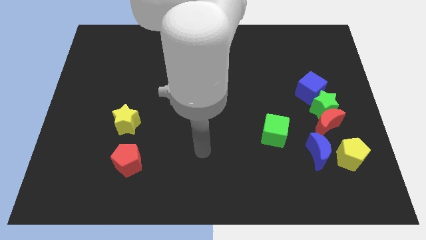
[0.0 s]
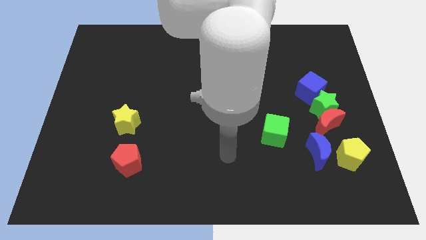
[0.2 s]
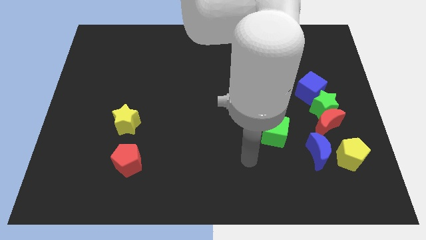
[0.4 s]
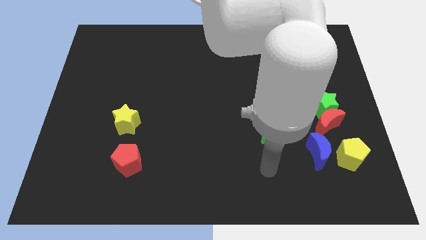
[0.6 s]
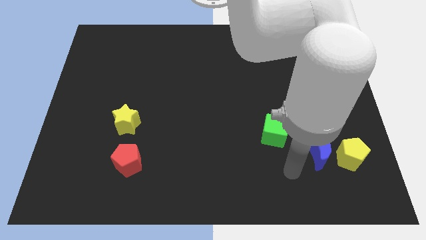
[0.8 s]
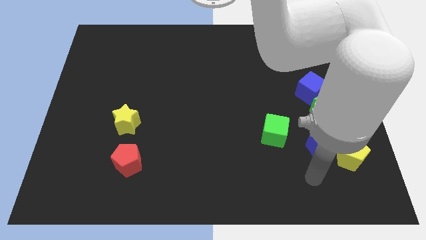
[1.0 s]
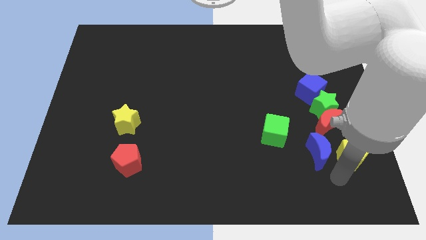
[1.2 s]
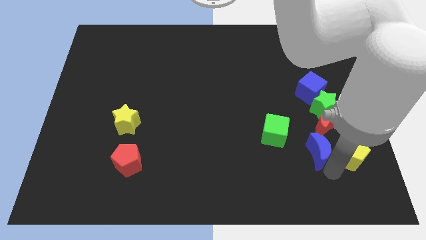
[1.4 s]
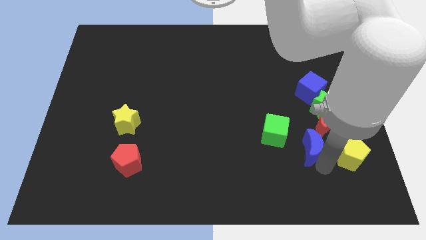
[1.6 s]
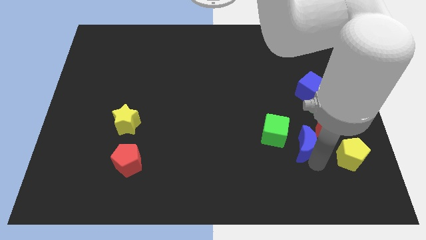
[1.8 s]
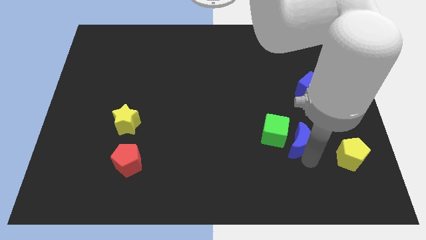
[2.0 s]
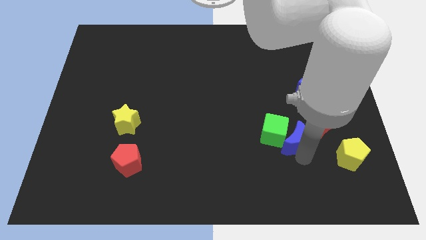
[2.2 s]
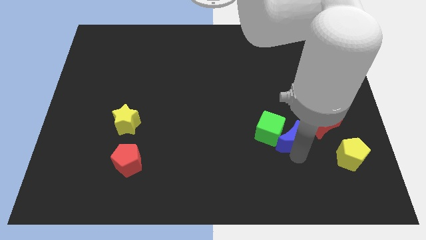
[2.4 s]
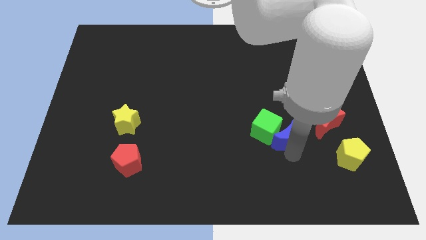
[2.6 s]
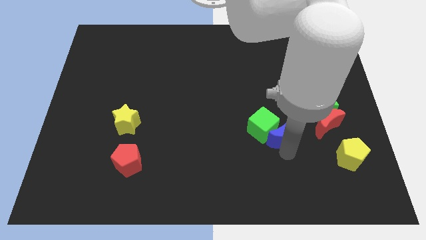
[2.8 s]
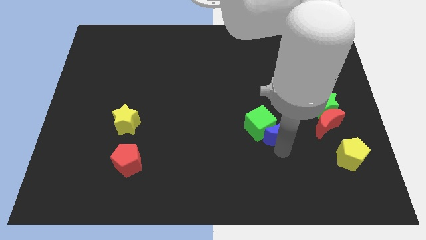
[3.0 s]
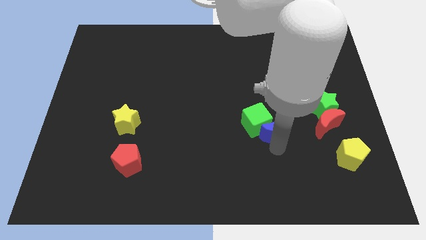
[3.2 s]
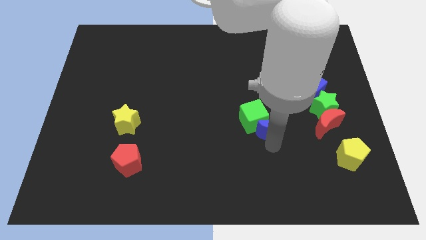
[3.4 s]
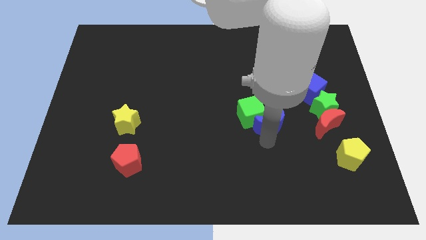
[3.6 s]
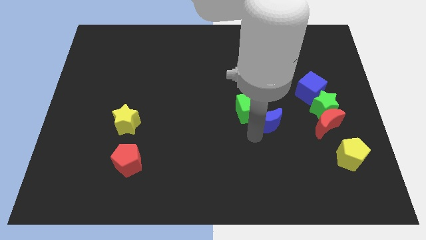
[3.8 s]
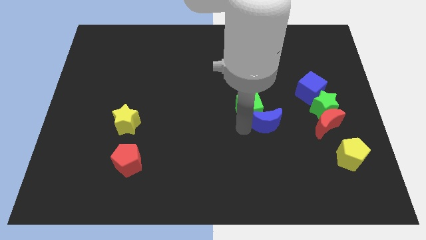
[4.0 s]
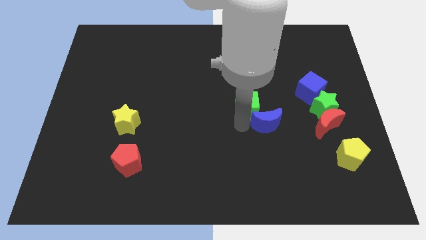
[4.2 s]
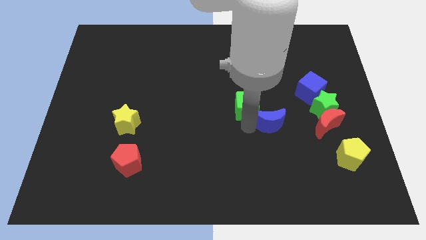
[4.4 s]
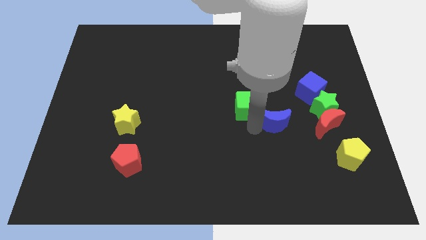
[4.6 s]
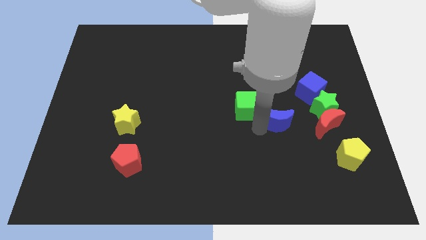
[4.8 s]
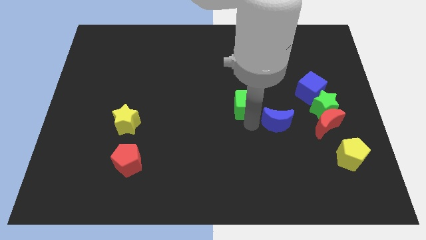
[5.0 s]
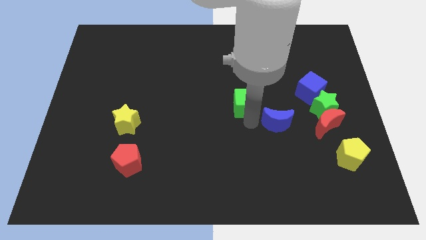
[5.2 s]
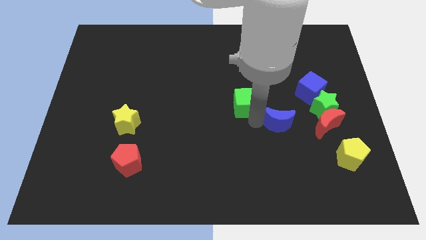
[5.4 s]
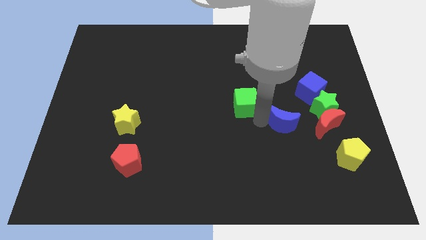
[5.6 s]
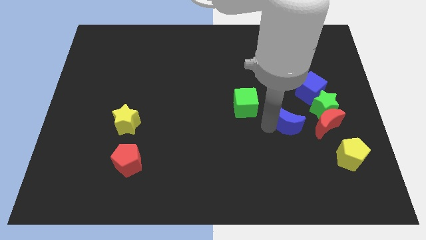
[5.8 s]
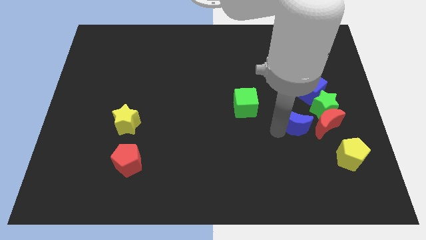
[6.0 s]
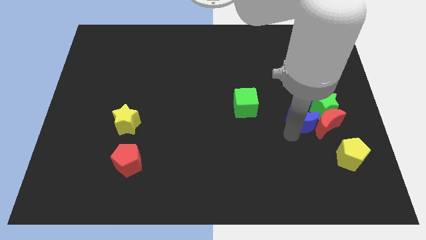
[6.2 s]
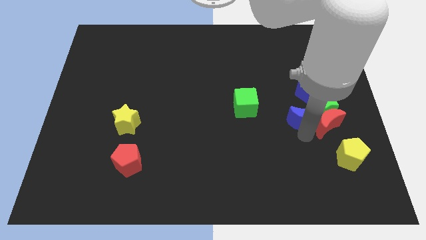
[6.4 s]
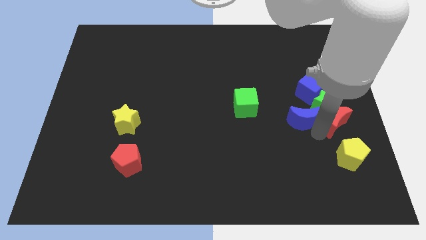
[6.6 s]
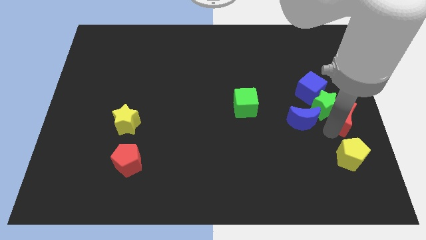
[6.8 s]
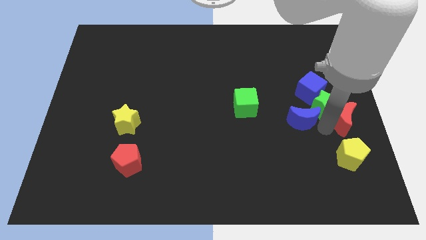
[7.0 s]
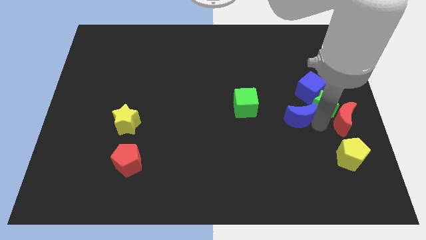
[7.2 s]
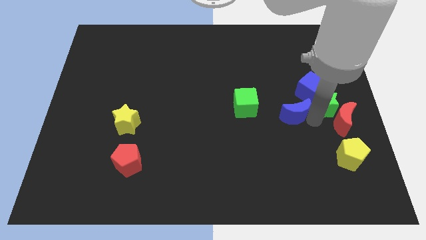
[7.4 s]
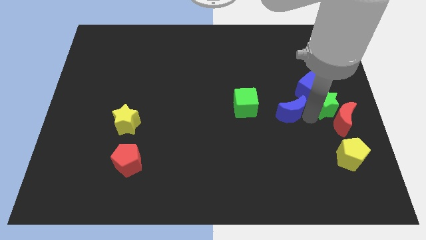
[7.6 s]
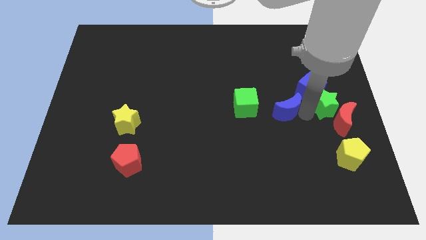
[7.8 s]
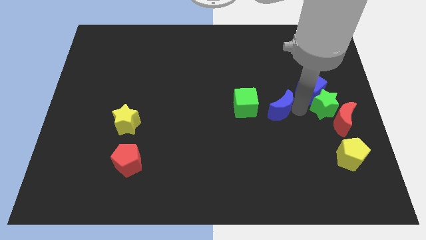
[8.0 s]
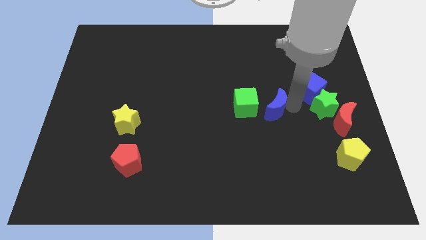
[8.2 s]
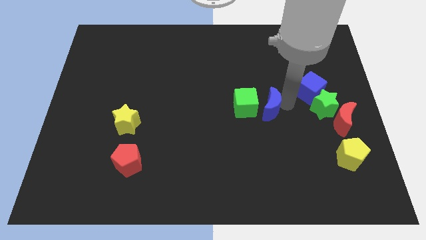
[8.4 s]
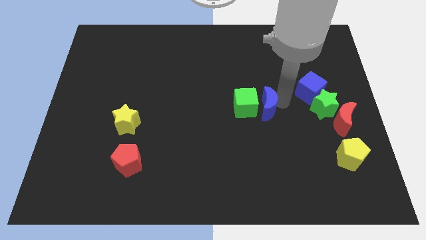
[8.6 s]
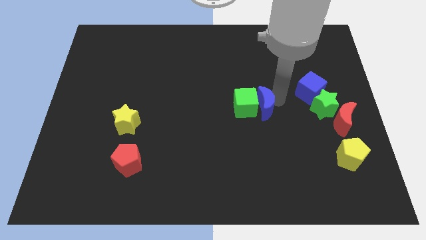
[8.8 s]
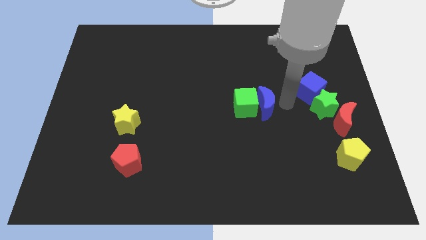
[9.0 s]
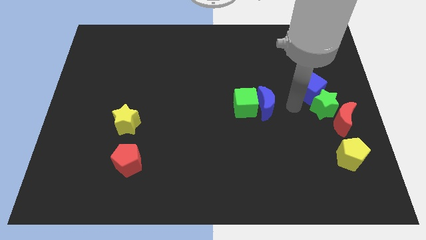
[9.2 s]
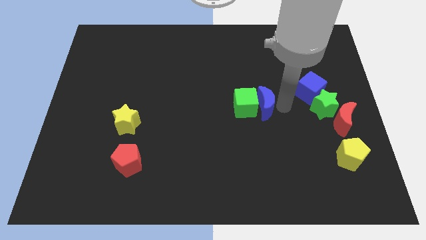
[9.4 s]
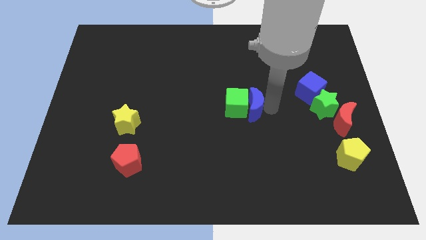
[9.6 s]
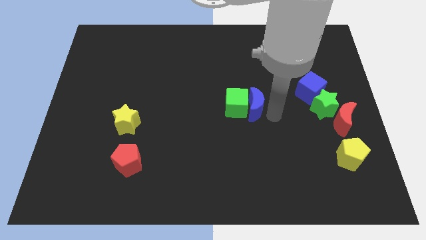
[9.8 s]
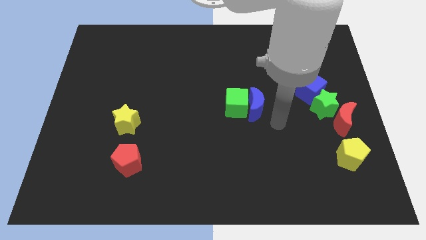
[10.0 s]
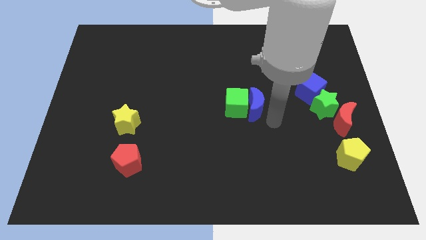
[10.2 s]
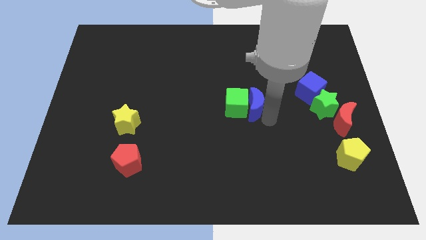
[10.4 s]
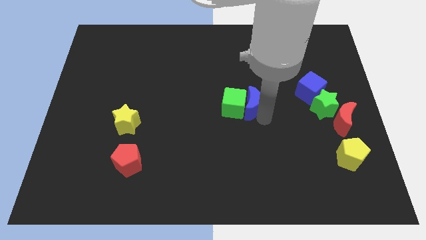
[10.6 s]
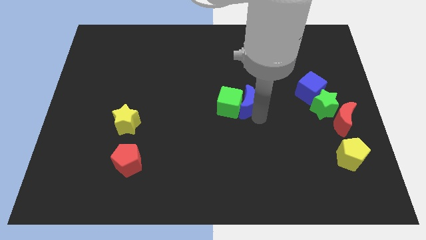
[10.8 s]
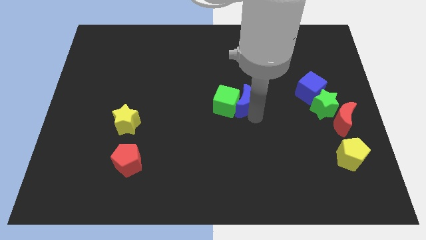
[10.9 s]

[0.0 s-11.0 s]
push the blue moon upwards and then left

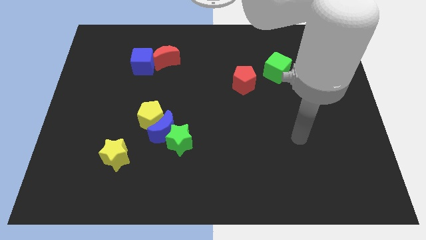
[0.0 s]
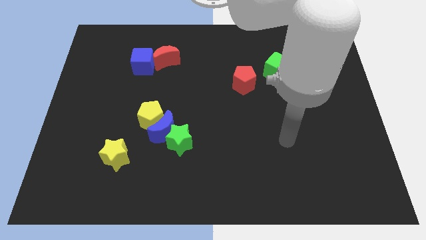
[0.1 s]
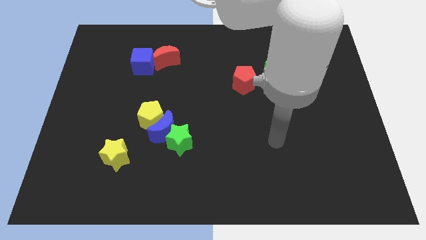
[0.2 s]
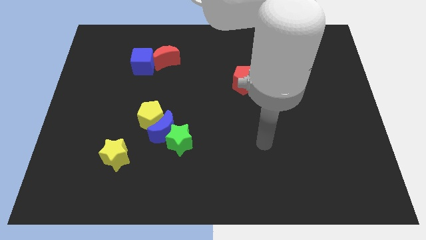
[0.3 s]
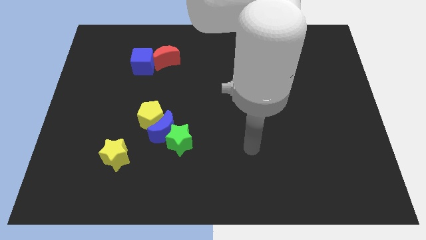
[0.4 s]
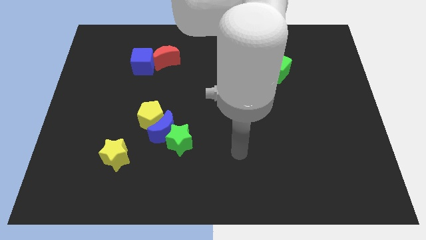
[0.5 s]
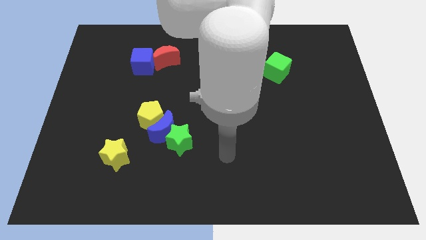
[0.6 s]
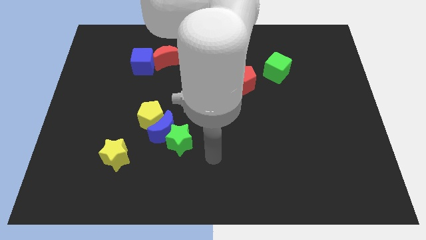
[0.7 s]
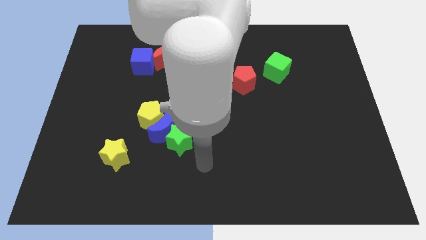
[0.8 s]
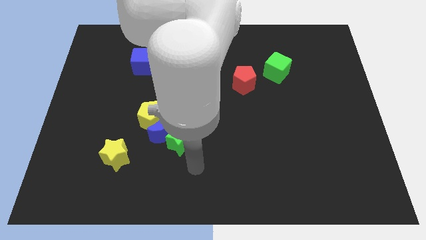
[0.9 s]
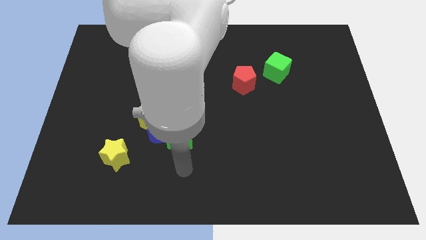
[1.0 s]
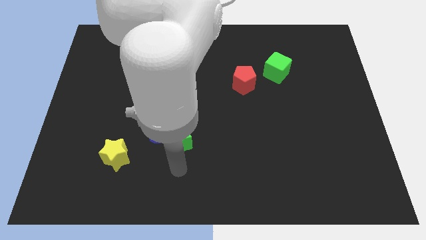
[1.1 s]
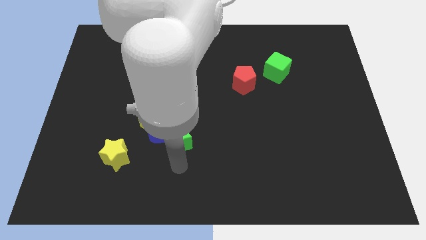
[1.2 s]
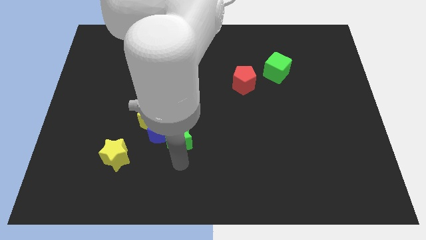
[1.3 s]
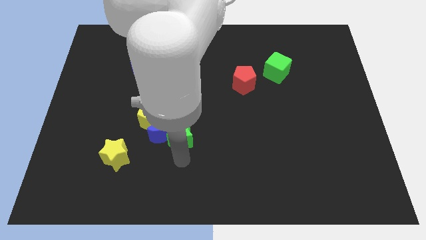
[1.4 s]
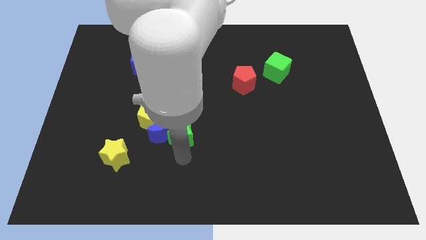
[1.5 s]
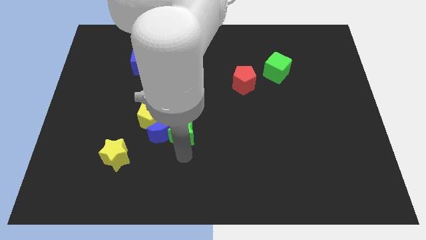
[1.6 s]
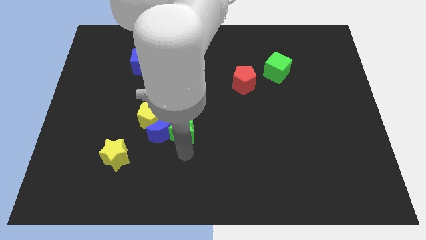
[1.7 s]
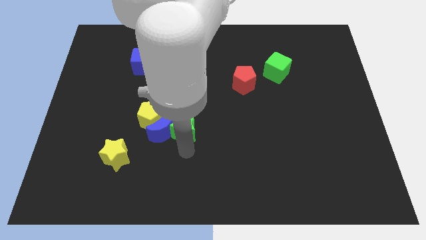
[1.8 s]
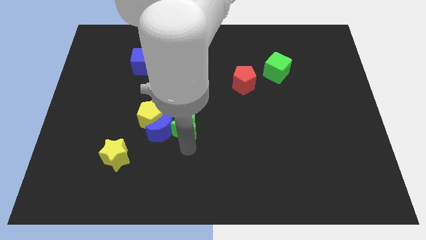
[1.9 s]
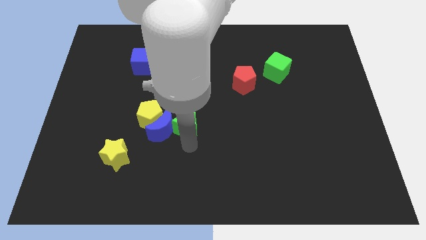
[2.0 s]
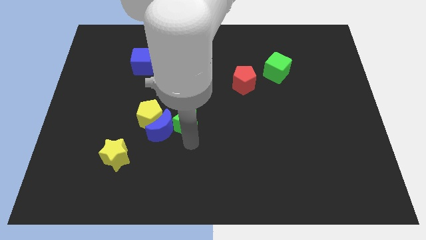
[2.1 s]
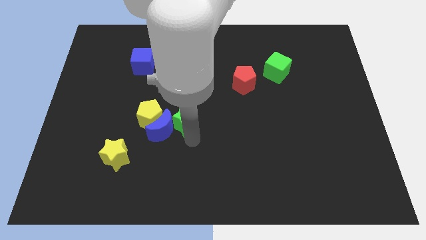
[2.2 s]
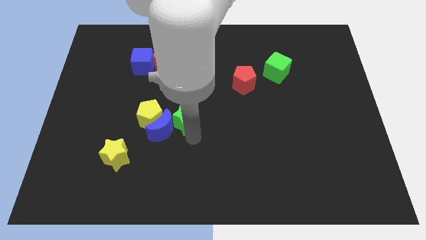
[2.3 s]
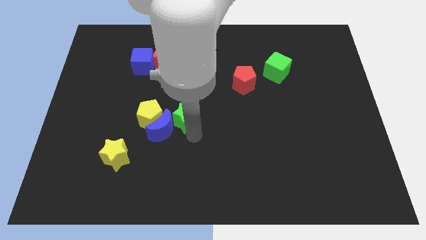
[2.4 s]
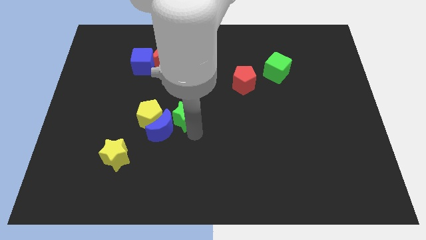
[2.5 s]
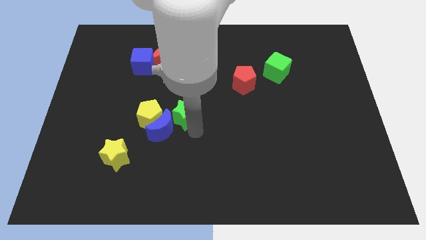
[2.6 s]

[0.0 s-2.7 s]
slide the green star upwards a bit
